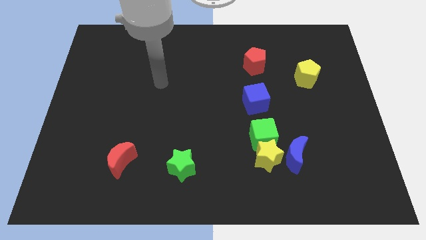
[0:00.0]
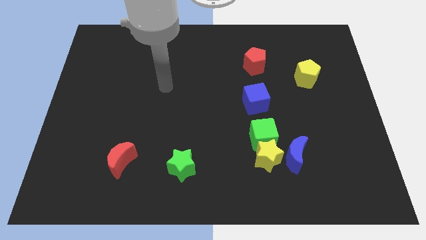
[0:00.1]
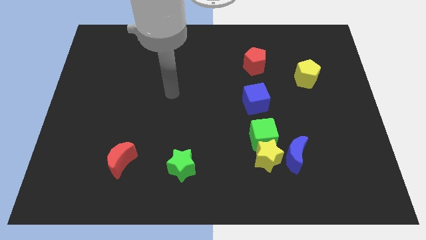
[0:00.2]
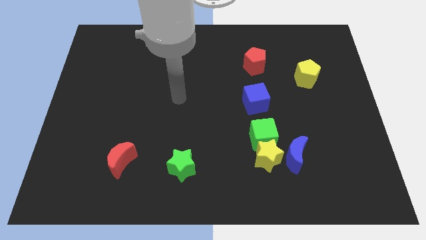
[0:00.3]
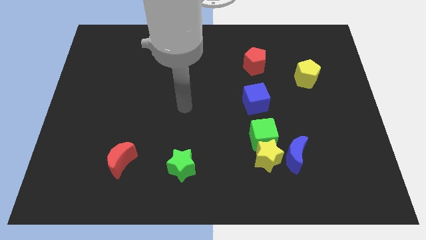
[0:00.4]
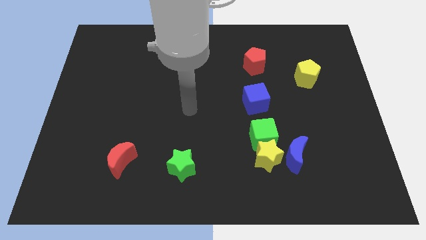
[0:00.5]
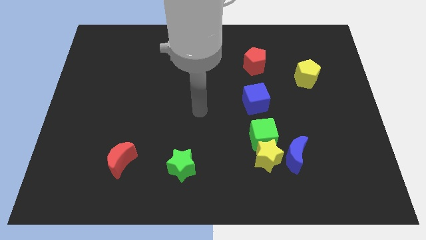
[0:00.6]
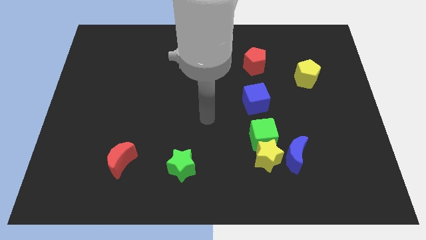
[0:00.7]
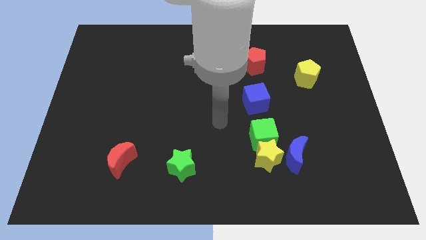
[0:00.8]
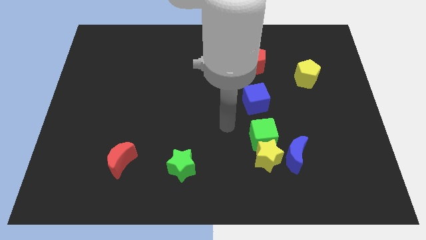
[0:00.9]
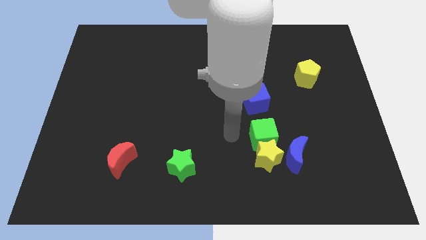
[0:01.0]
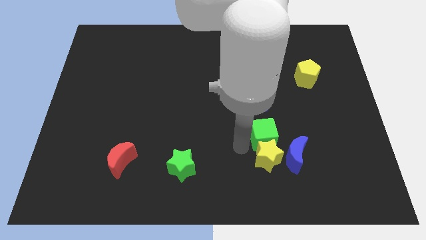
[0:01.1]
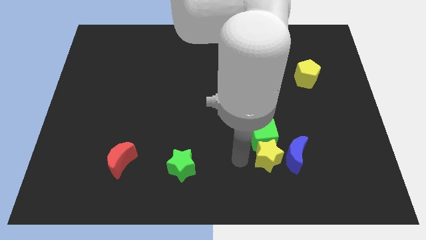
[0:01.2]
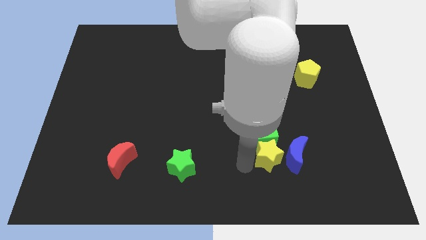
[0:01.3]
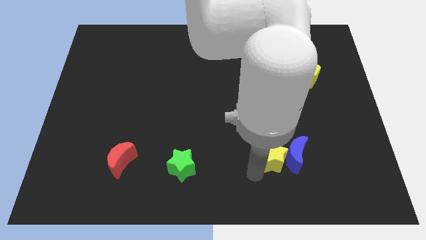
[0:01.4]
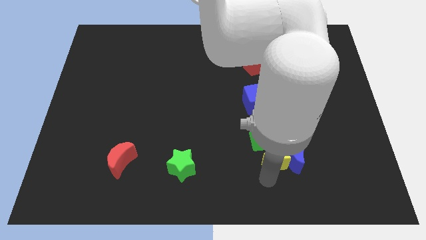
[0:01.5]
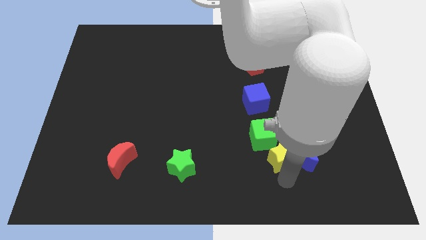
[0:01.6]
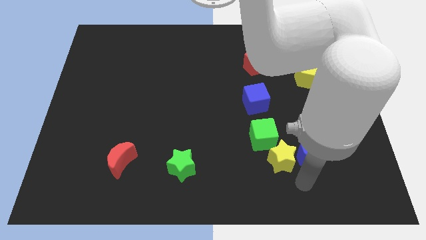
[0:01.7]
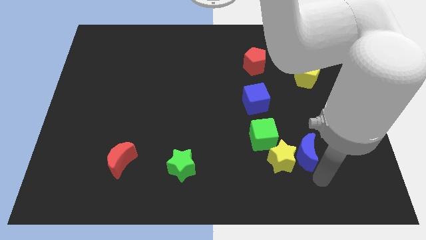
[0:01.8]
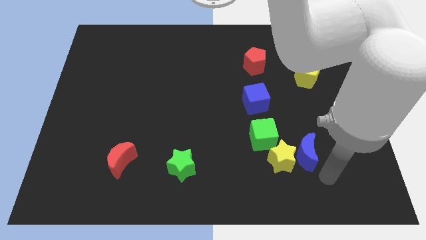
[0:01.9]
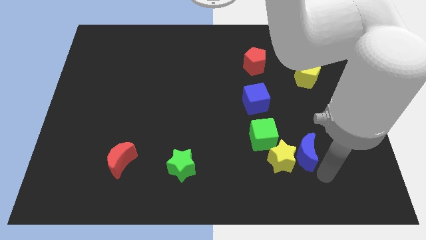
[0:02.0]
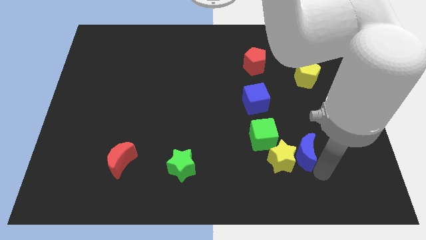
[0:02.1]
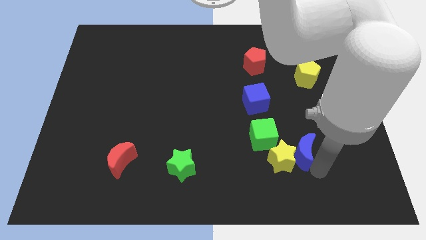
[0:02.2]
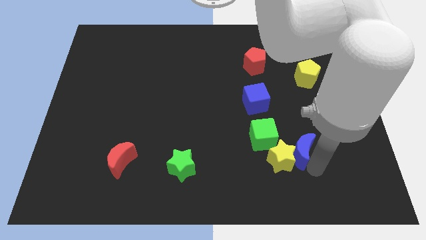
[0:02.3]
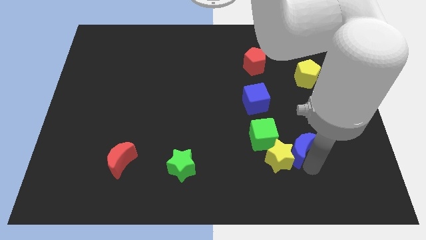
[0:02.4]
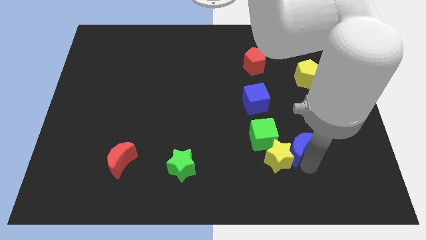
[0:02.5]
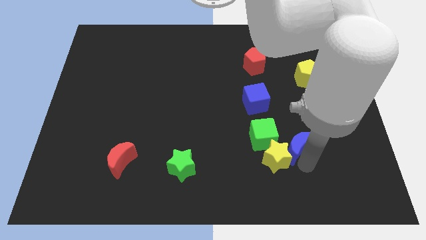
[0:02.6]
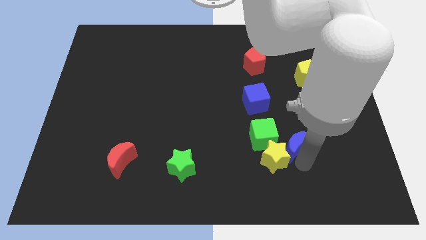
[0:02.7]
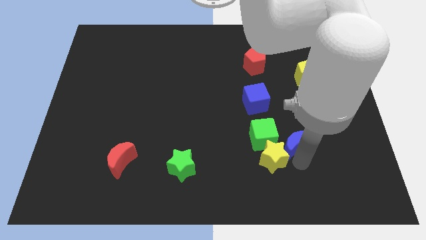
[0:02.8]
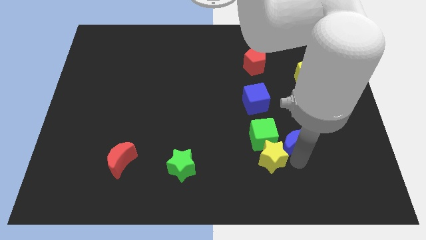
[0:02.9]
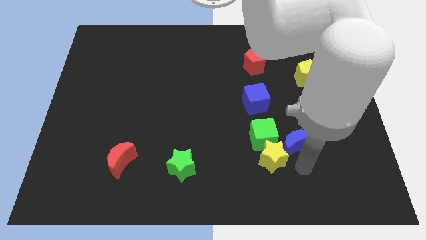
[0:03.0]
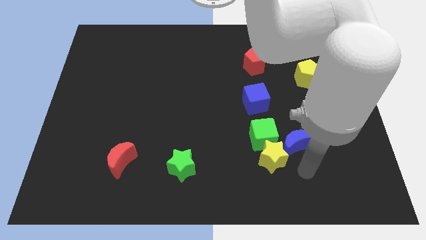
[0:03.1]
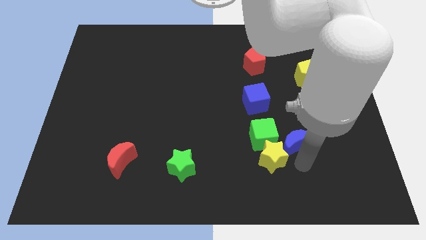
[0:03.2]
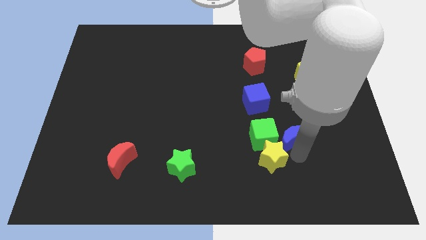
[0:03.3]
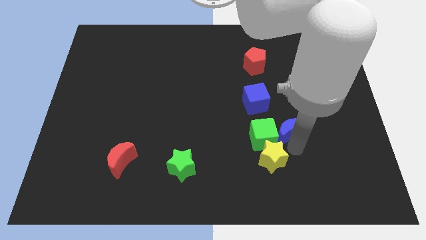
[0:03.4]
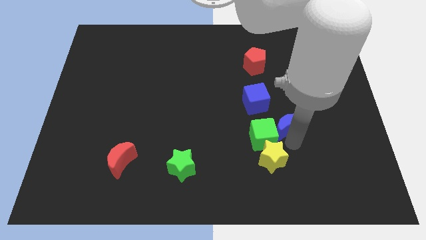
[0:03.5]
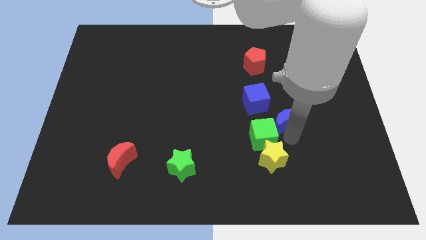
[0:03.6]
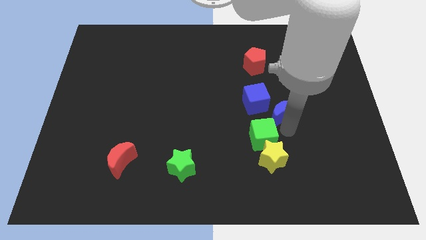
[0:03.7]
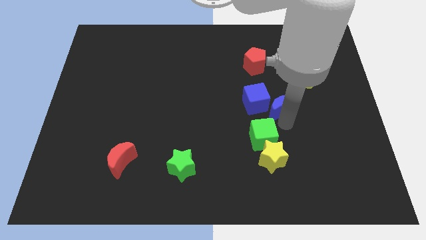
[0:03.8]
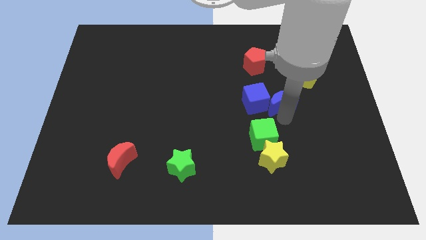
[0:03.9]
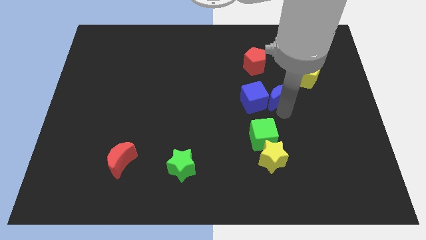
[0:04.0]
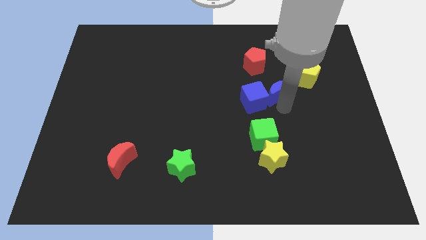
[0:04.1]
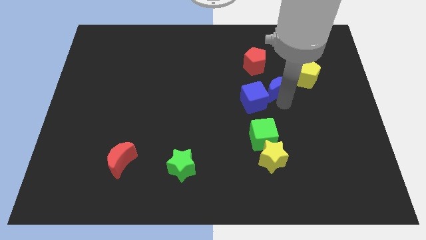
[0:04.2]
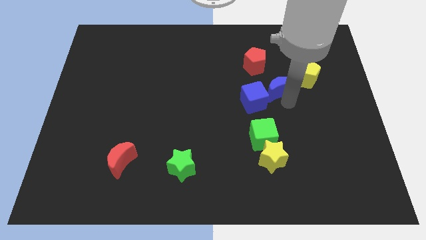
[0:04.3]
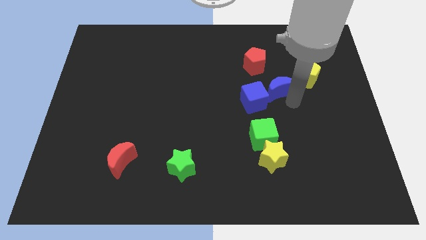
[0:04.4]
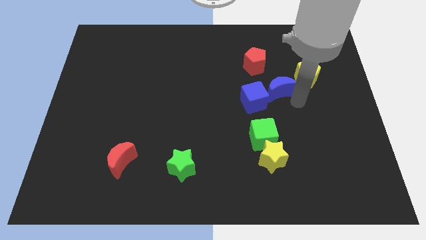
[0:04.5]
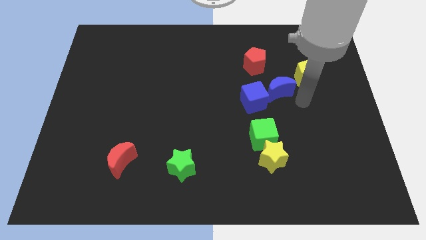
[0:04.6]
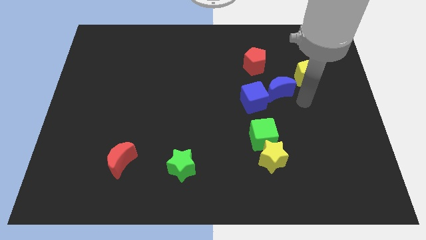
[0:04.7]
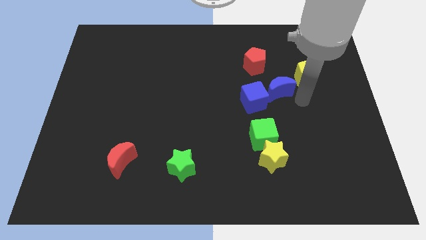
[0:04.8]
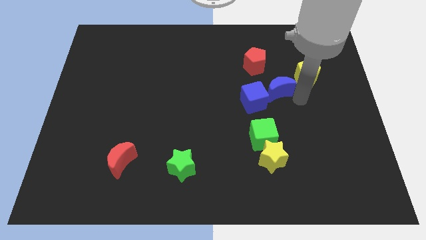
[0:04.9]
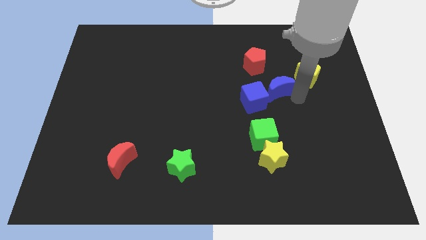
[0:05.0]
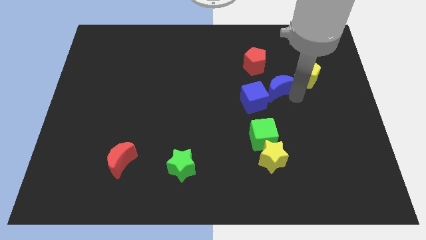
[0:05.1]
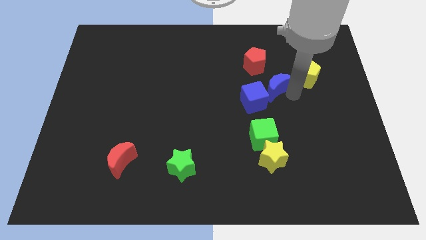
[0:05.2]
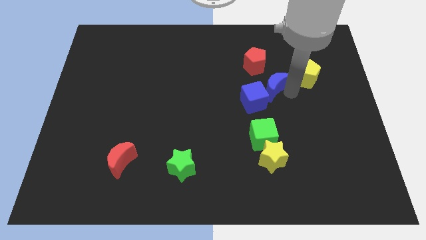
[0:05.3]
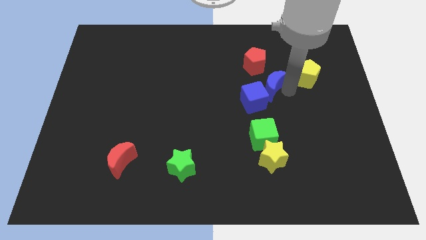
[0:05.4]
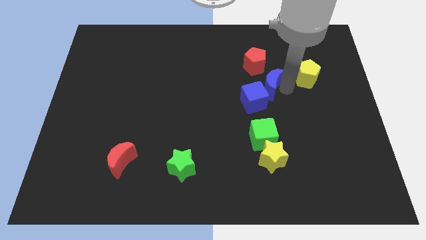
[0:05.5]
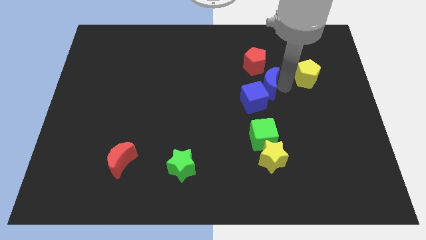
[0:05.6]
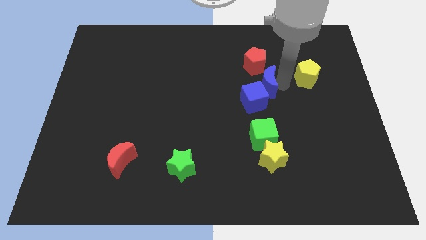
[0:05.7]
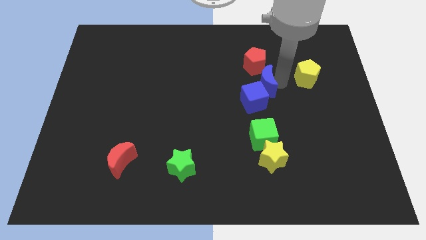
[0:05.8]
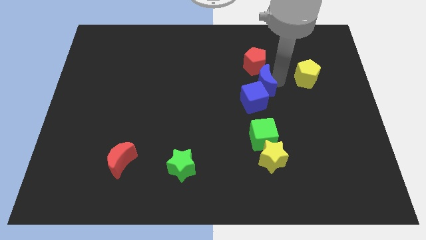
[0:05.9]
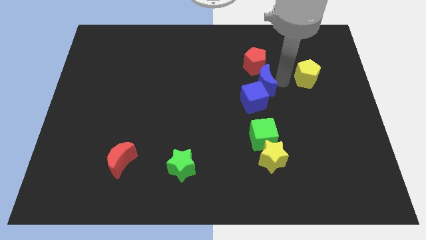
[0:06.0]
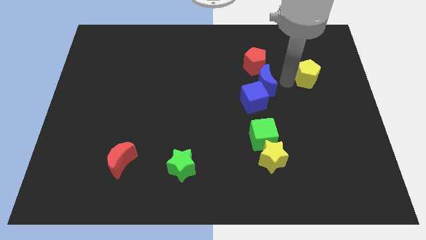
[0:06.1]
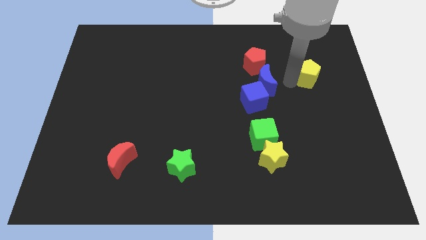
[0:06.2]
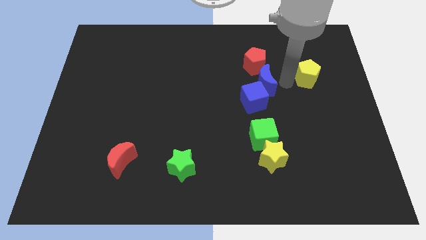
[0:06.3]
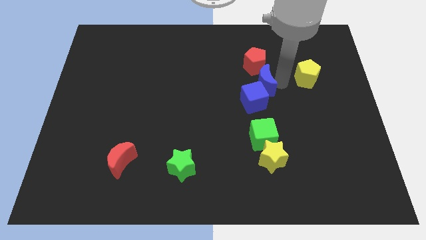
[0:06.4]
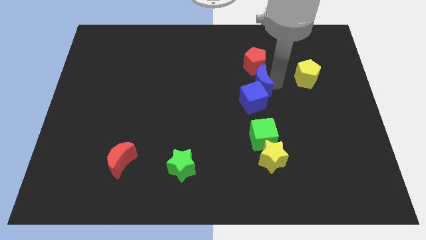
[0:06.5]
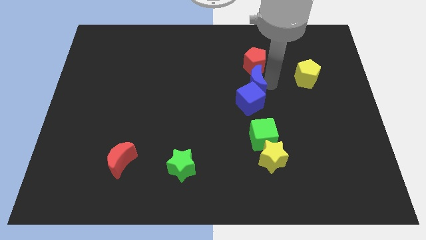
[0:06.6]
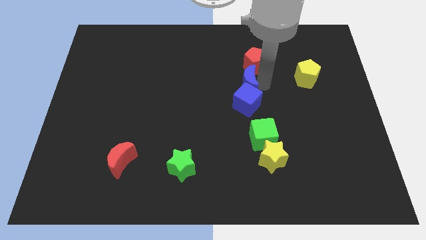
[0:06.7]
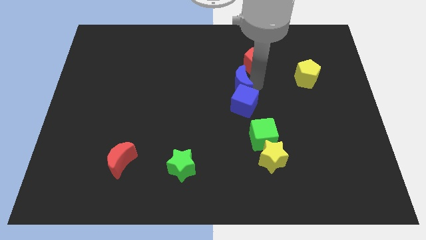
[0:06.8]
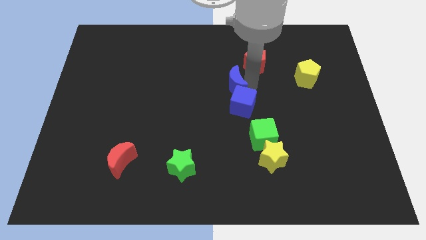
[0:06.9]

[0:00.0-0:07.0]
push the blue moon diagonally up and to the left

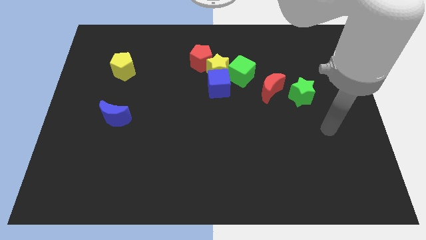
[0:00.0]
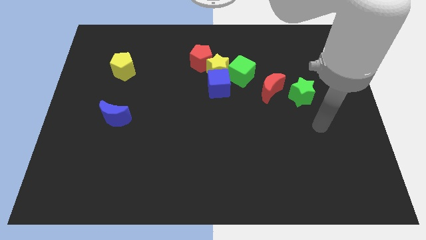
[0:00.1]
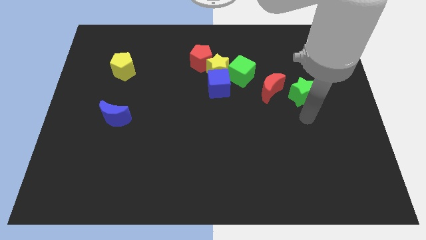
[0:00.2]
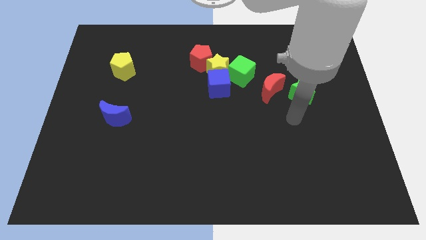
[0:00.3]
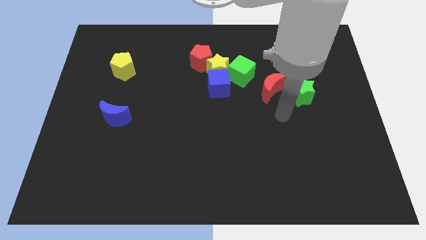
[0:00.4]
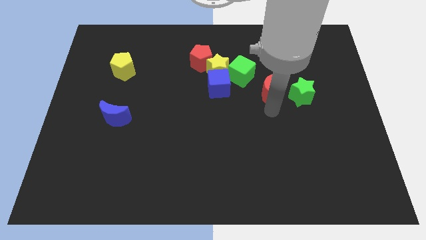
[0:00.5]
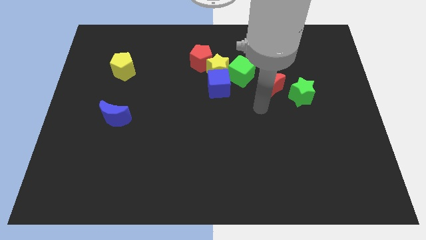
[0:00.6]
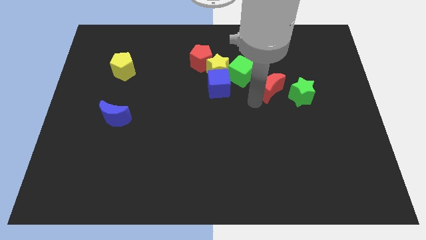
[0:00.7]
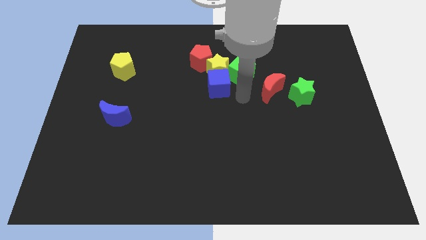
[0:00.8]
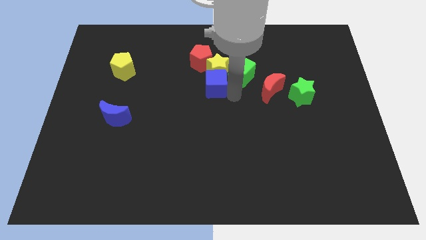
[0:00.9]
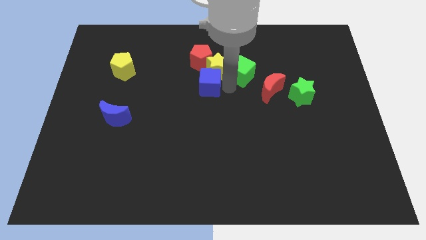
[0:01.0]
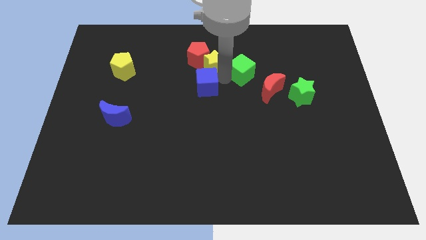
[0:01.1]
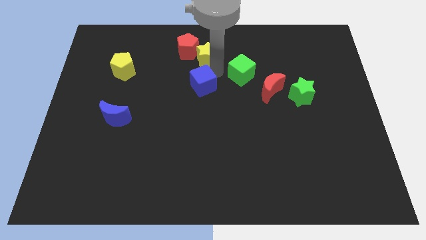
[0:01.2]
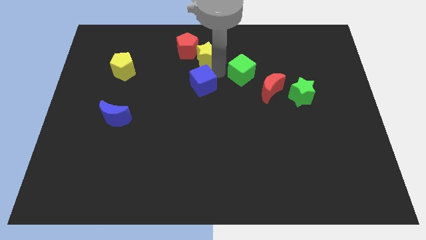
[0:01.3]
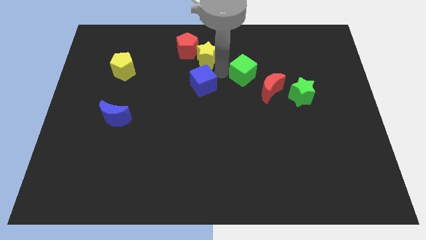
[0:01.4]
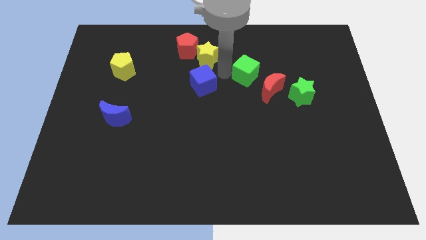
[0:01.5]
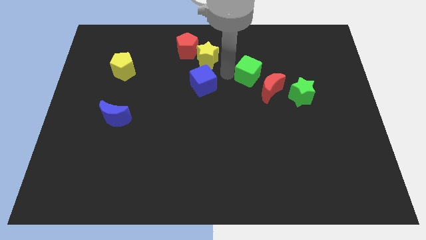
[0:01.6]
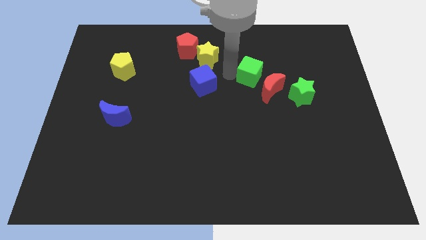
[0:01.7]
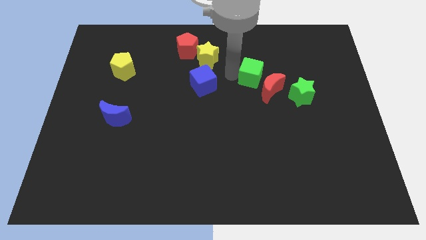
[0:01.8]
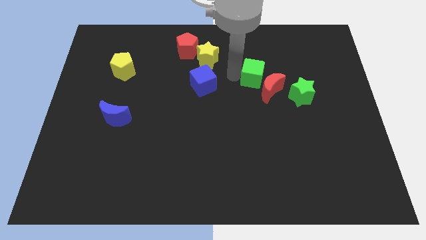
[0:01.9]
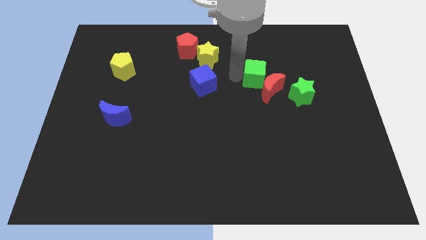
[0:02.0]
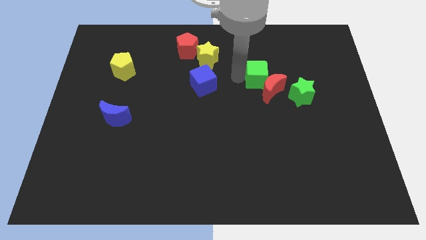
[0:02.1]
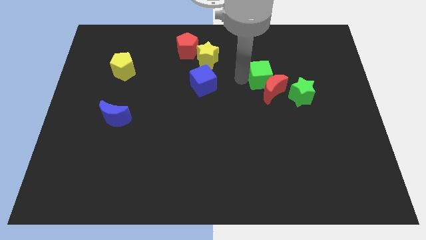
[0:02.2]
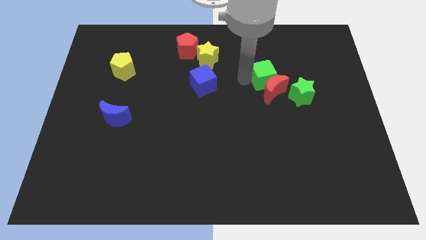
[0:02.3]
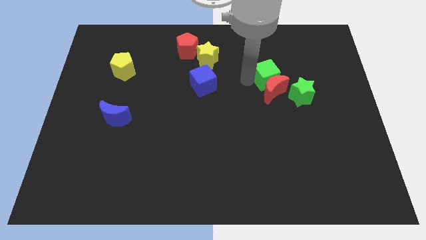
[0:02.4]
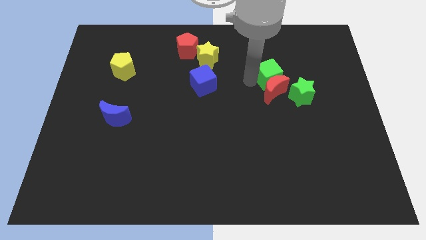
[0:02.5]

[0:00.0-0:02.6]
move the green cube a bit right
